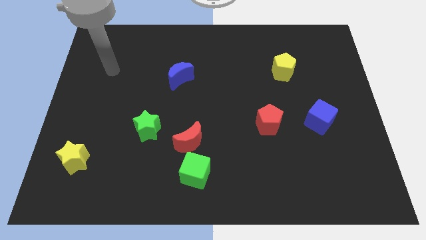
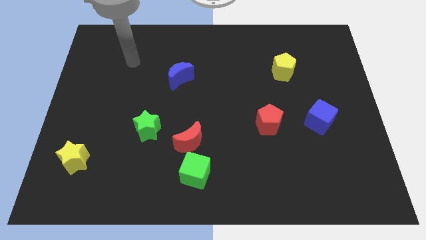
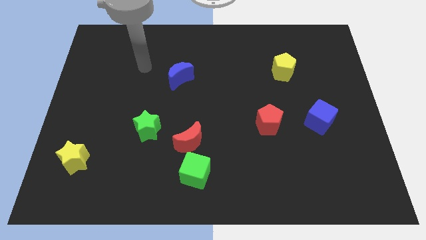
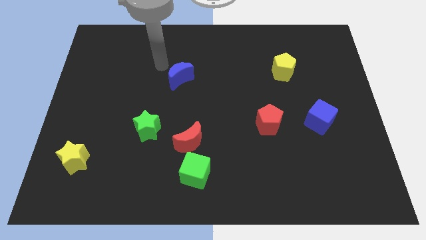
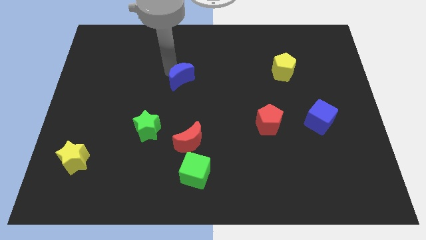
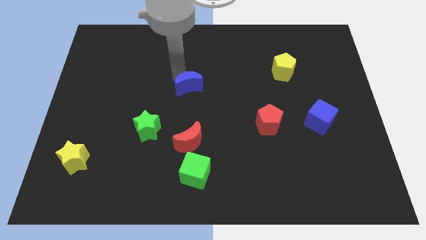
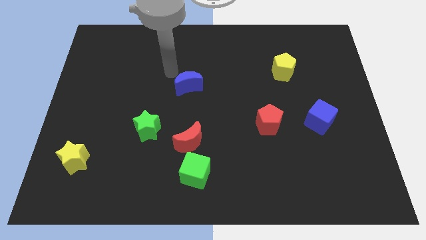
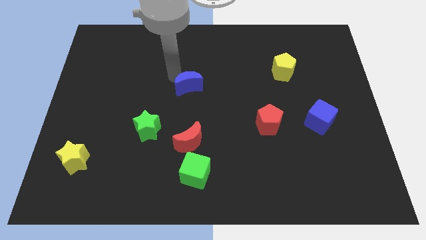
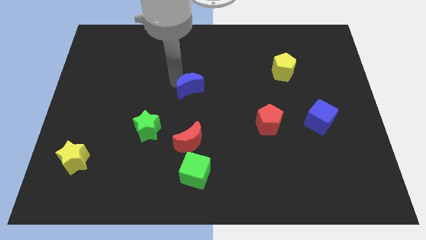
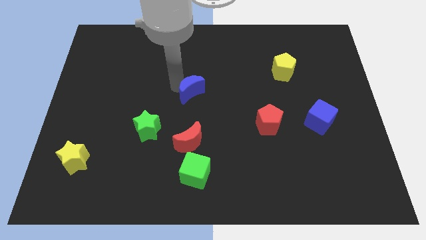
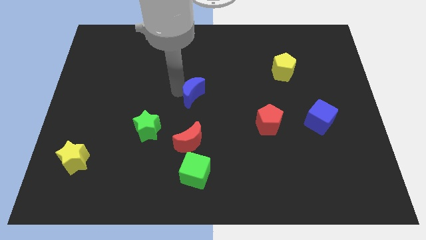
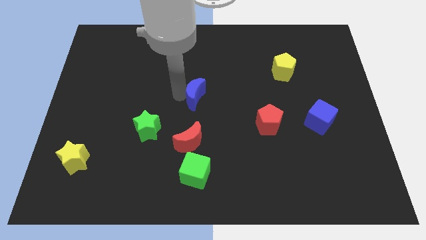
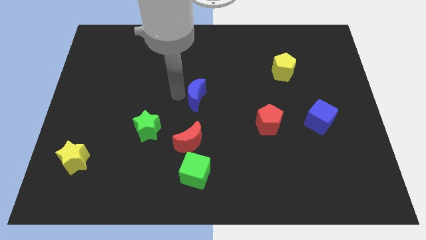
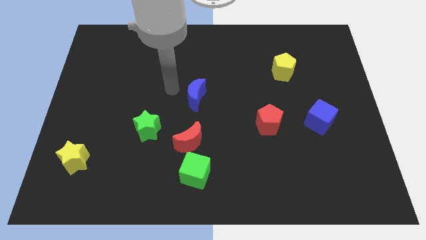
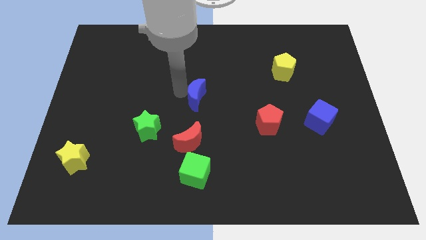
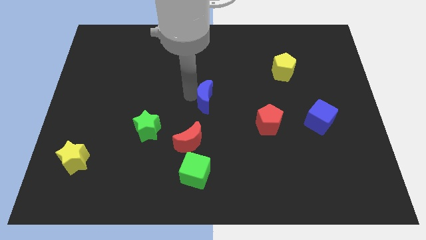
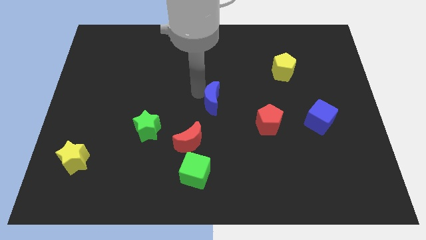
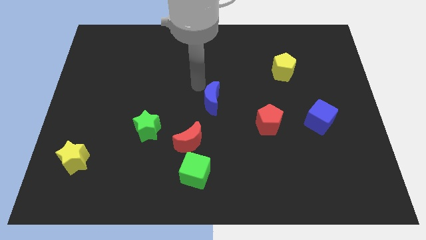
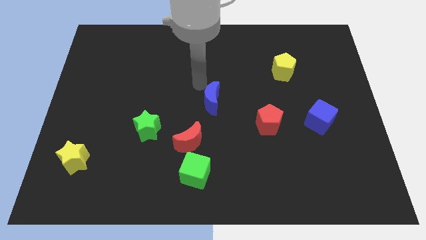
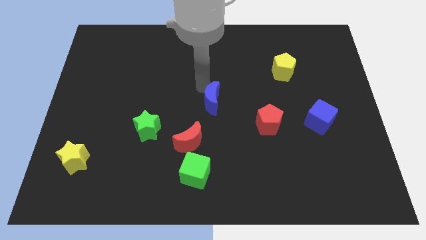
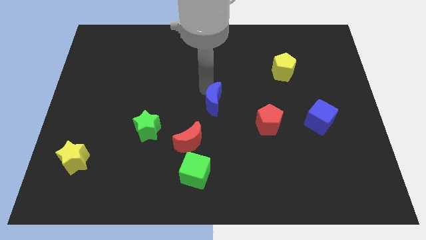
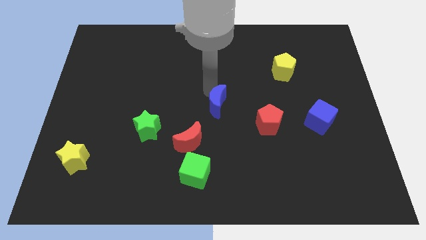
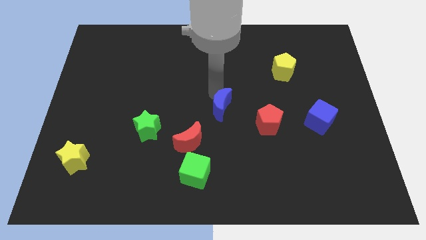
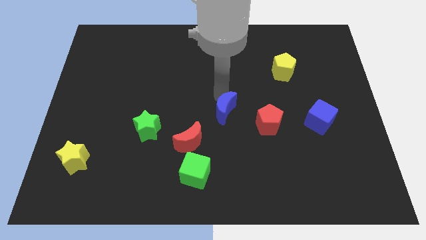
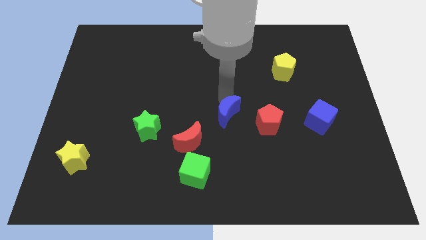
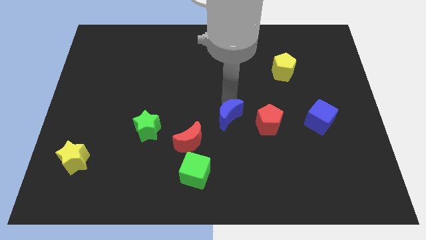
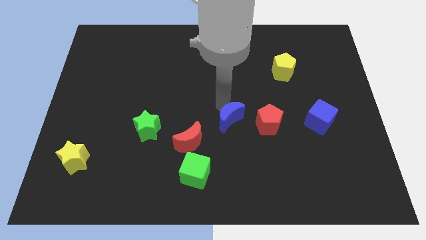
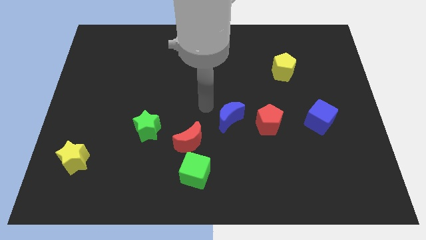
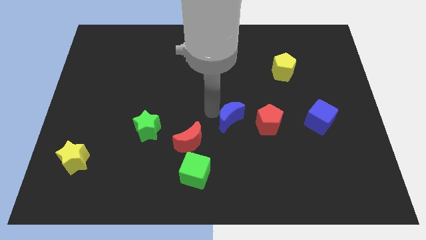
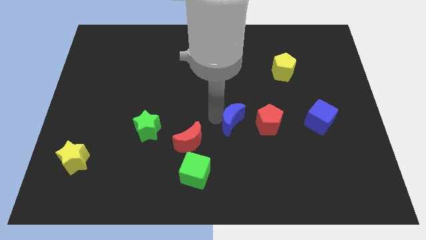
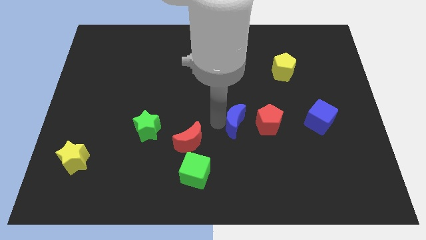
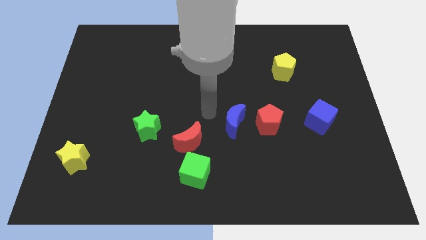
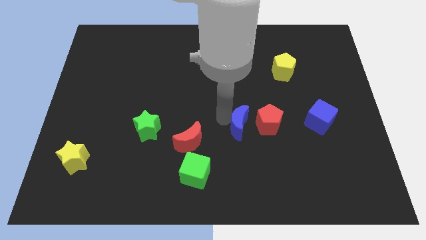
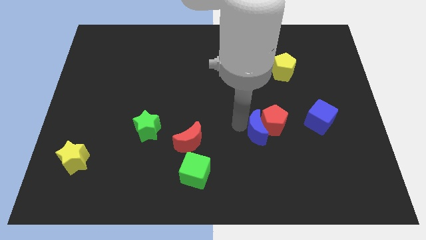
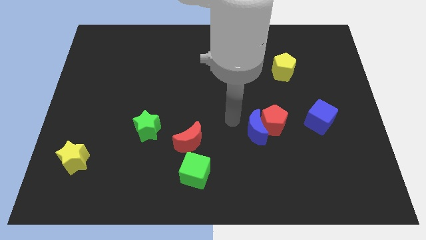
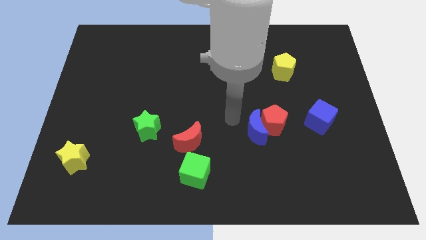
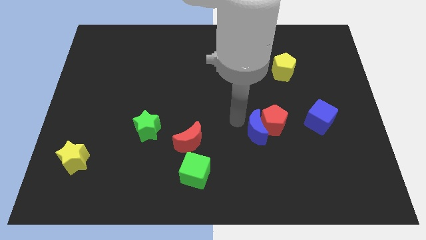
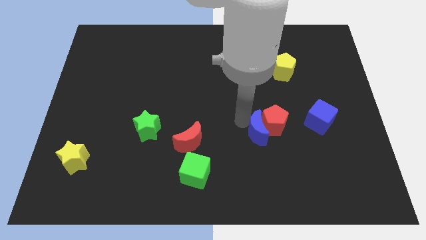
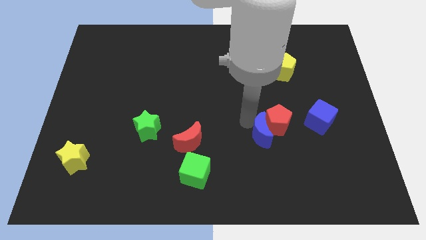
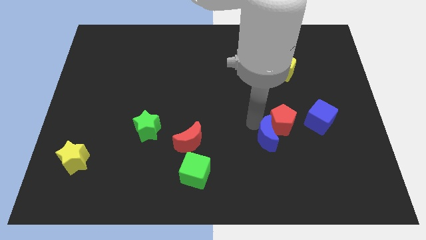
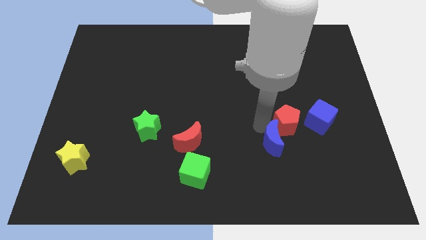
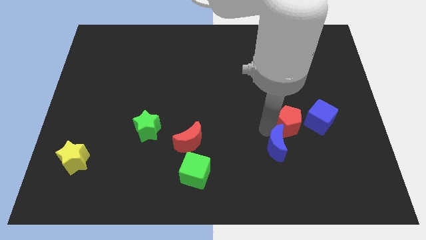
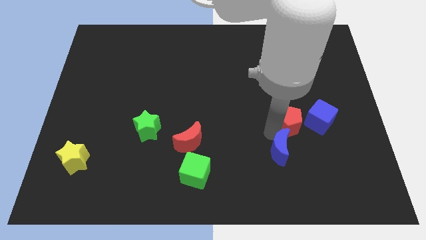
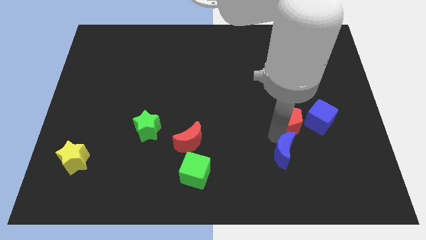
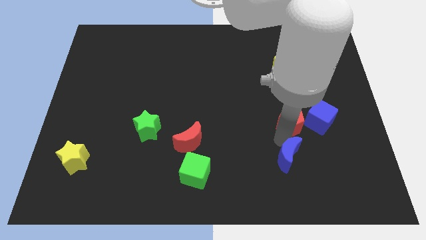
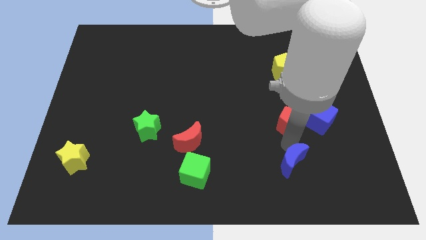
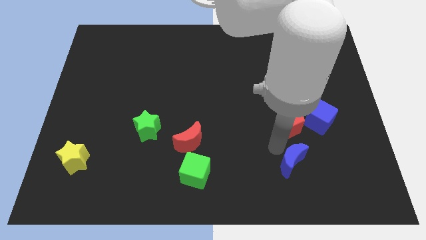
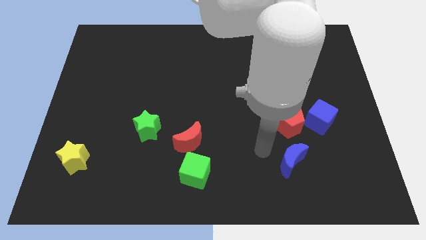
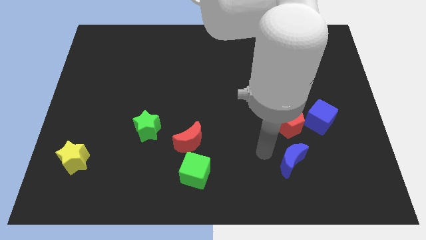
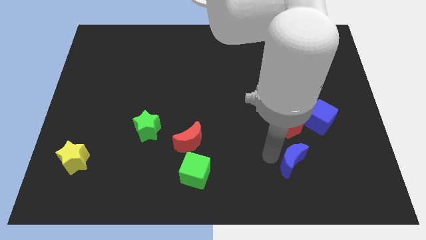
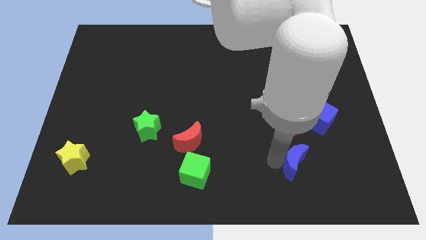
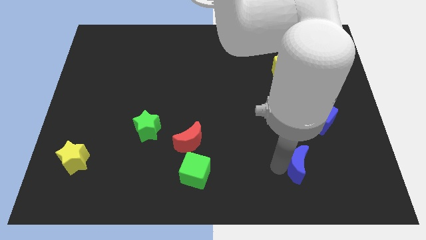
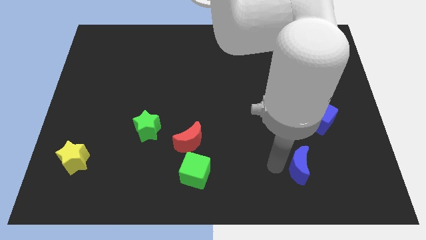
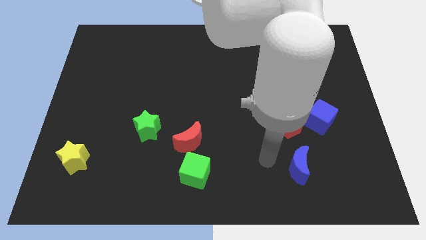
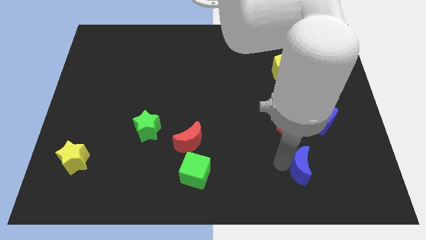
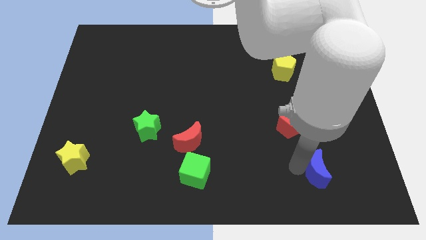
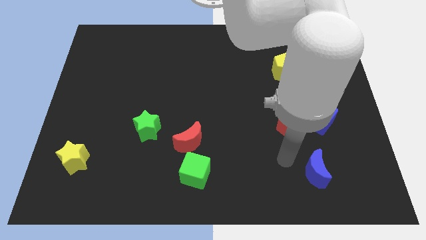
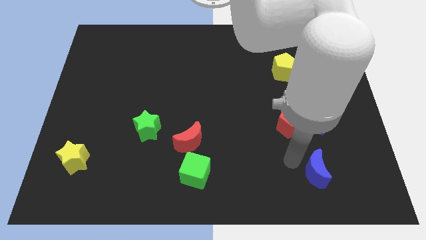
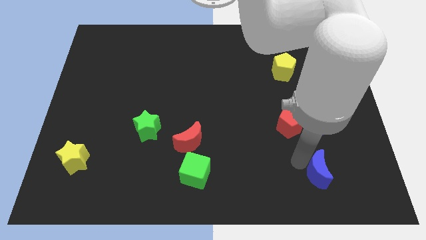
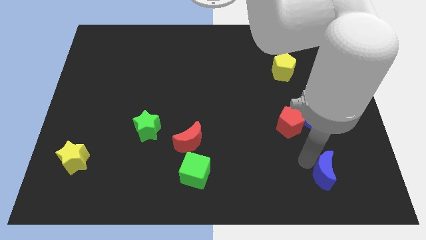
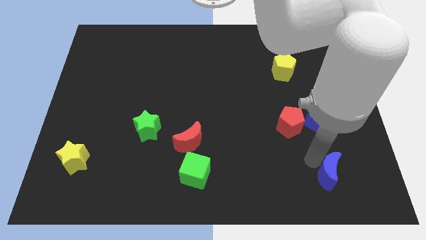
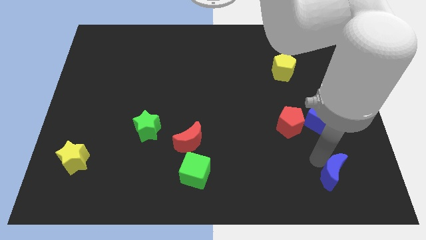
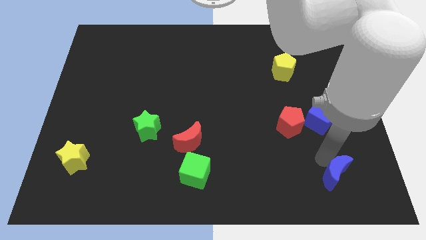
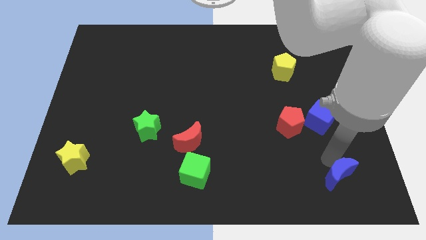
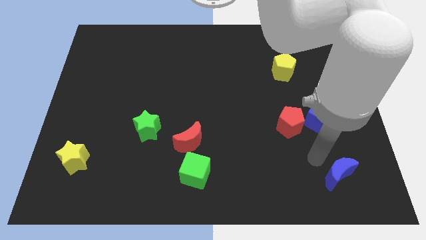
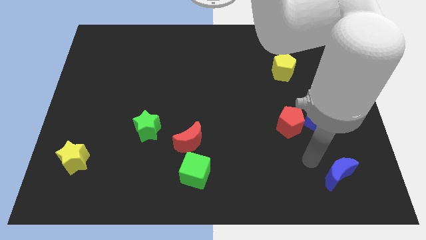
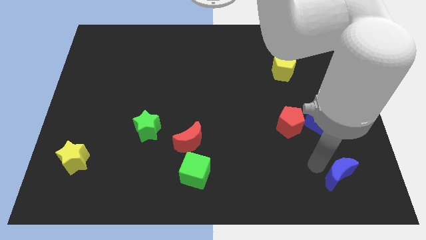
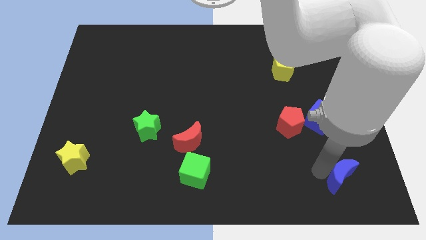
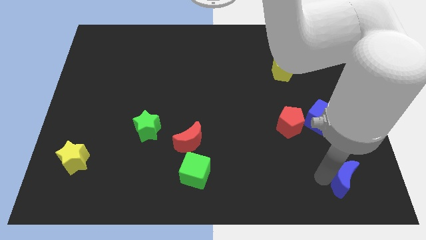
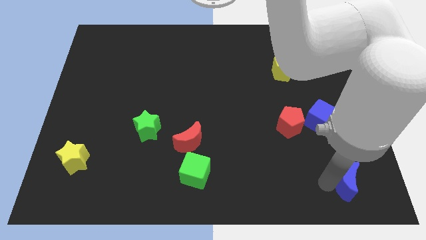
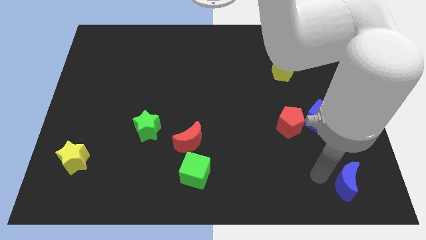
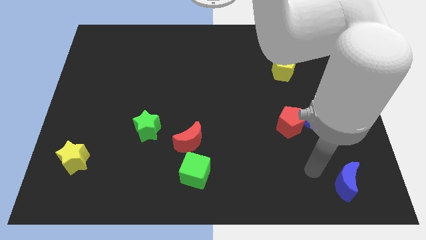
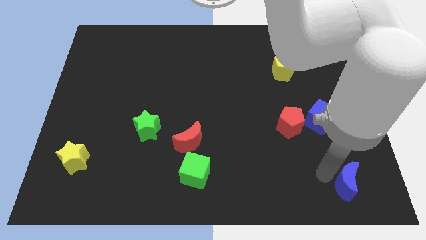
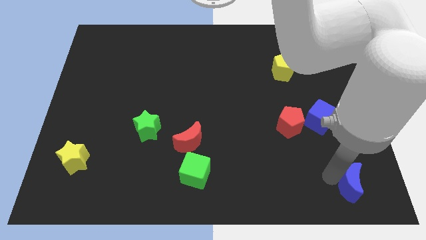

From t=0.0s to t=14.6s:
slide the blue moon to the bottom right of the board

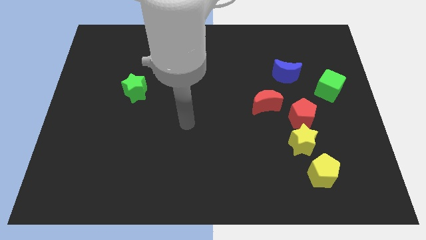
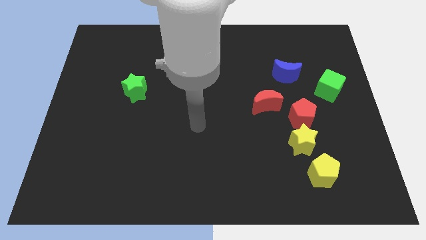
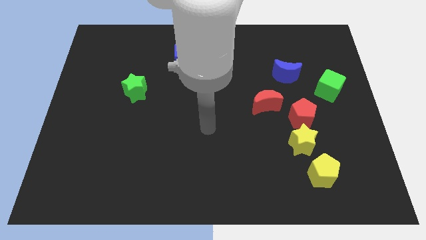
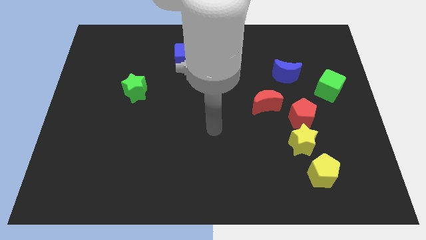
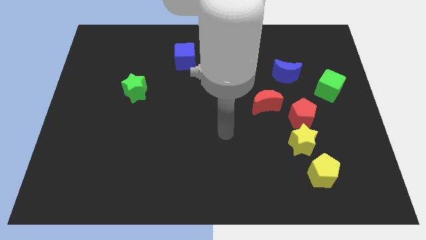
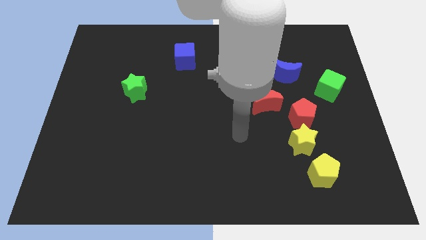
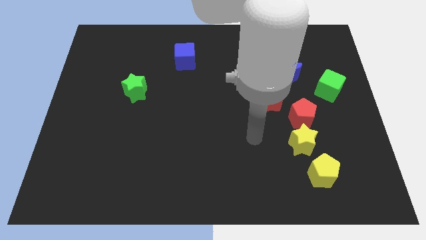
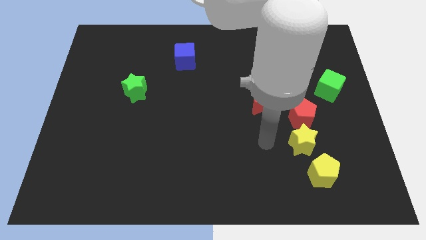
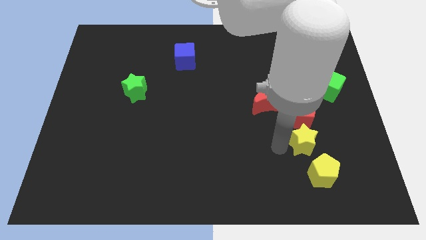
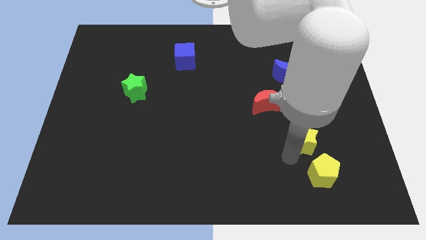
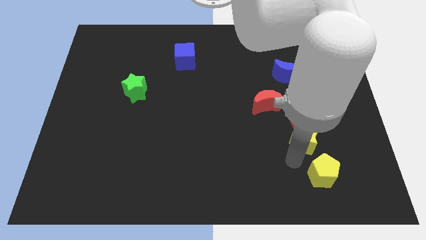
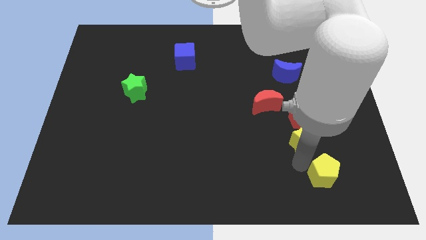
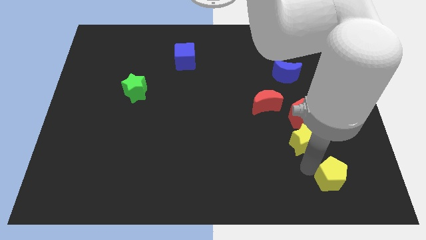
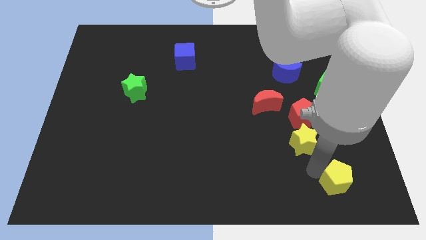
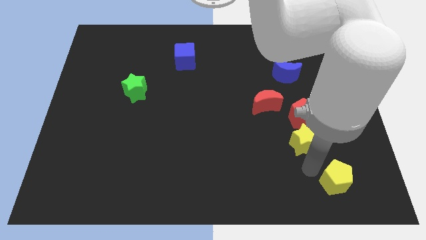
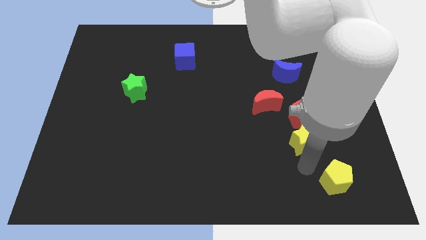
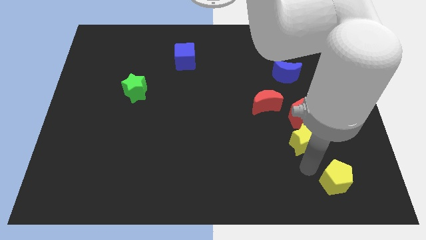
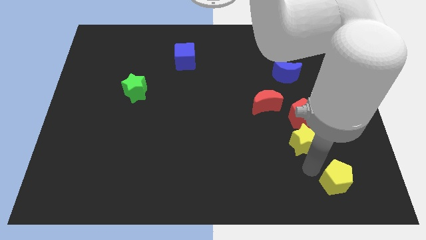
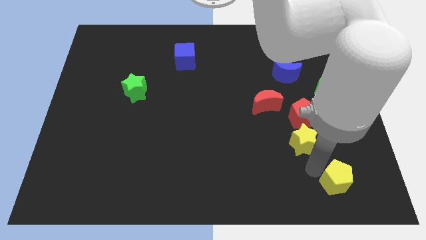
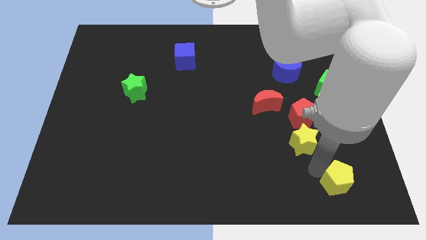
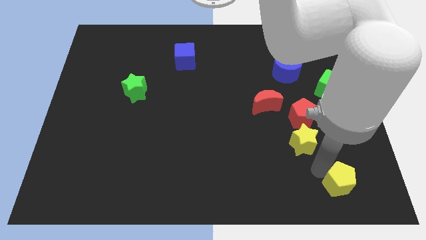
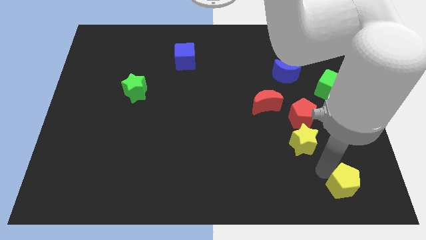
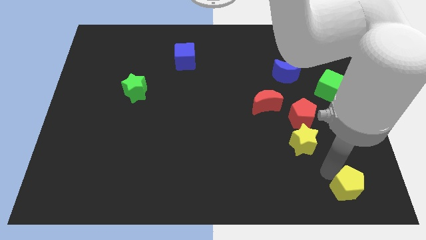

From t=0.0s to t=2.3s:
slide the yellow pentagon to the bottom right of the board
